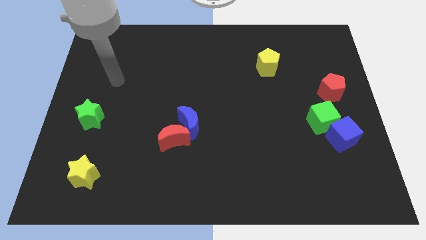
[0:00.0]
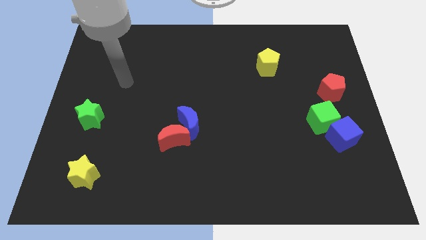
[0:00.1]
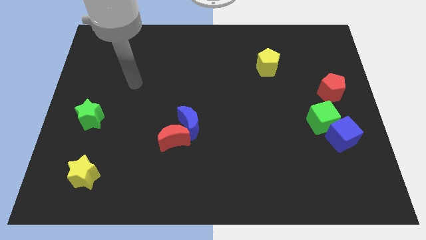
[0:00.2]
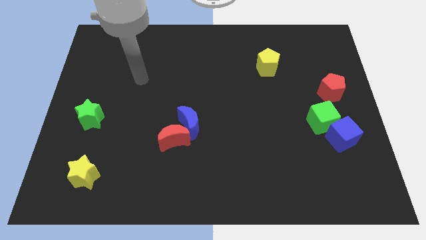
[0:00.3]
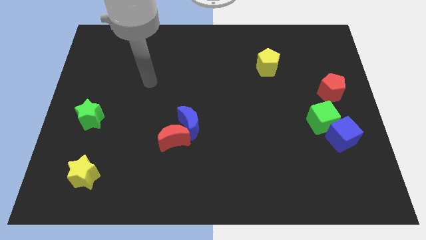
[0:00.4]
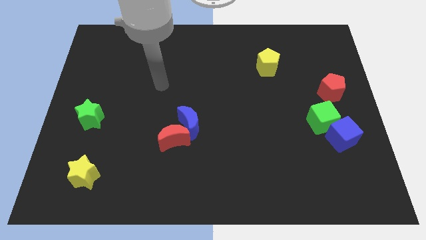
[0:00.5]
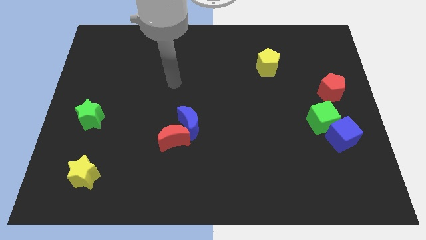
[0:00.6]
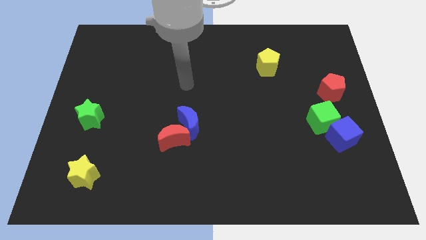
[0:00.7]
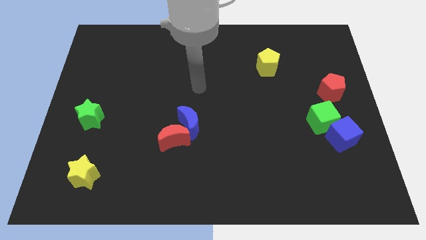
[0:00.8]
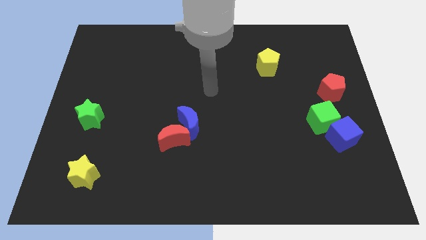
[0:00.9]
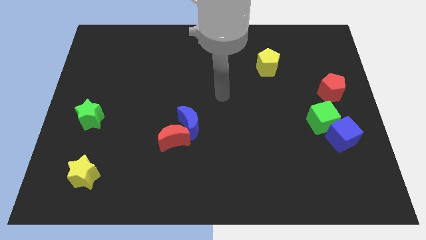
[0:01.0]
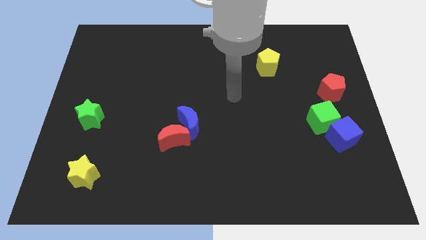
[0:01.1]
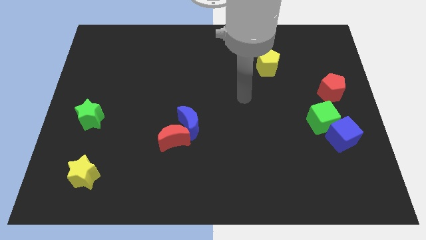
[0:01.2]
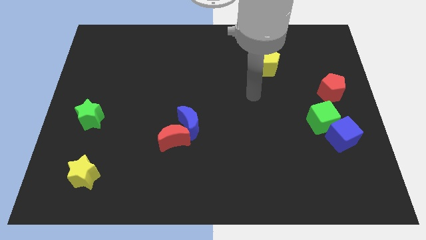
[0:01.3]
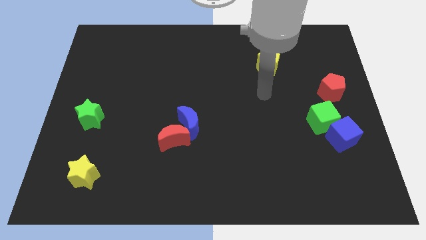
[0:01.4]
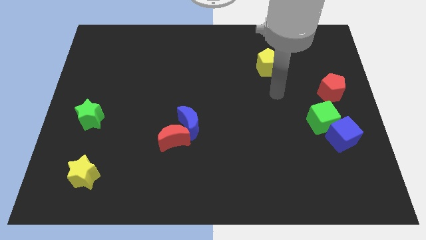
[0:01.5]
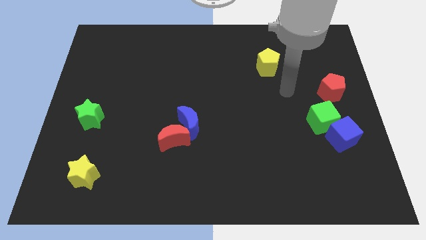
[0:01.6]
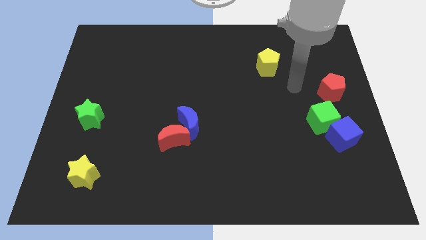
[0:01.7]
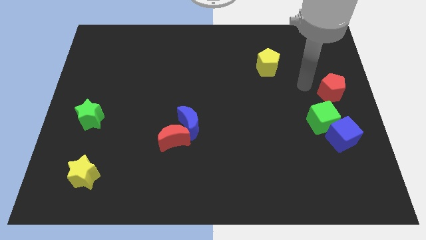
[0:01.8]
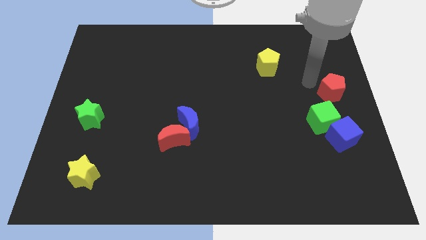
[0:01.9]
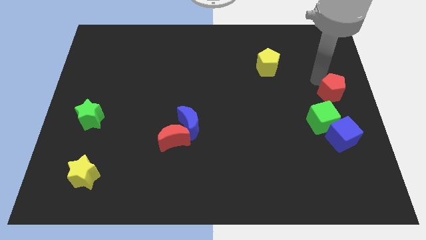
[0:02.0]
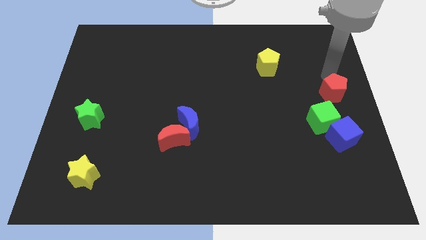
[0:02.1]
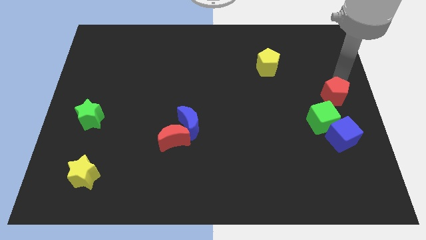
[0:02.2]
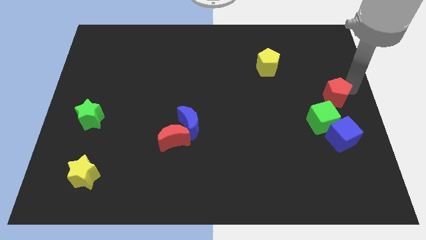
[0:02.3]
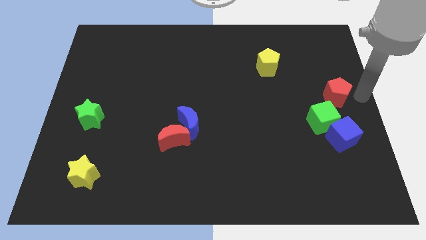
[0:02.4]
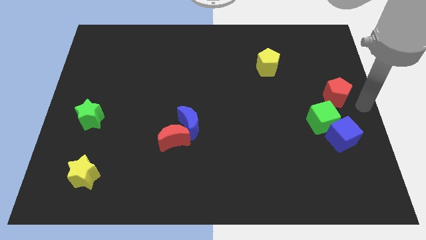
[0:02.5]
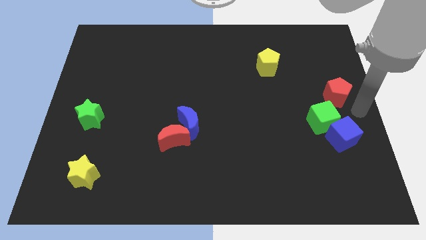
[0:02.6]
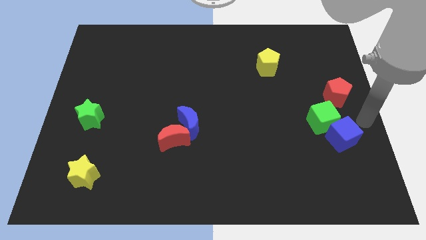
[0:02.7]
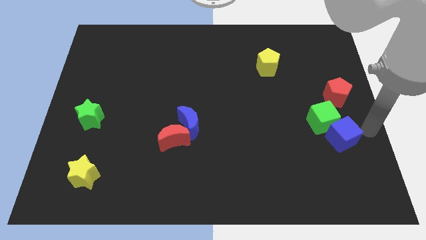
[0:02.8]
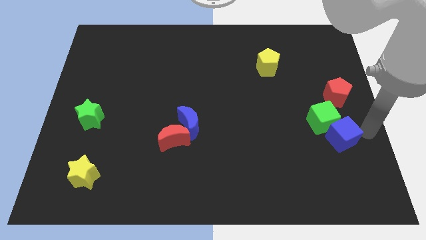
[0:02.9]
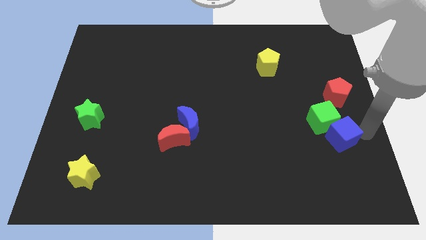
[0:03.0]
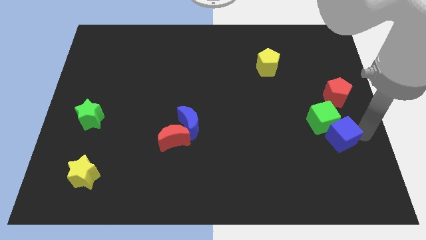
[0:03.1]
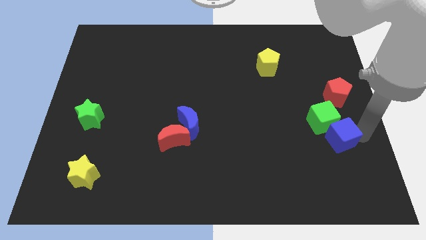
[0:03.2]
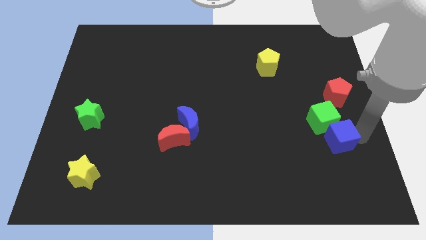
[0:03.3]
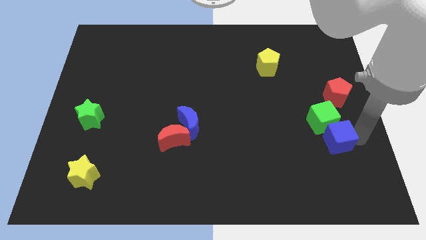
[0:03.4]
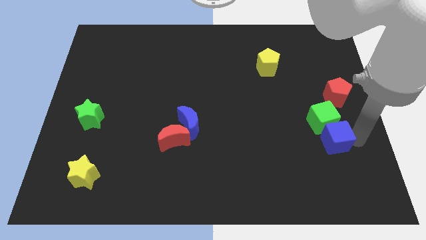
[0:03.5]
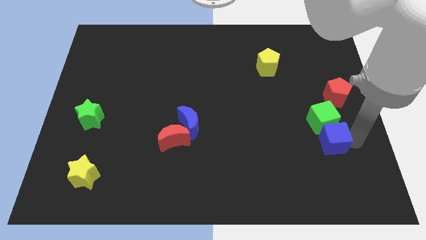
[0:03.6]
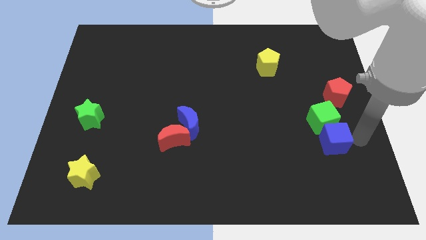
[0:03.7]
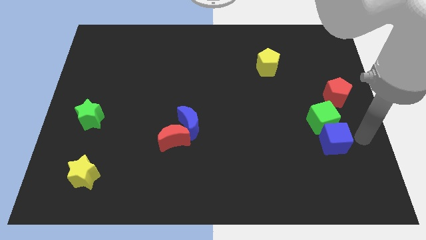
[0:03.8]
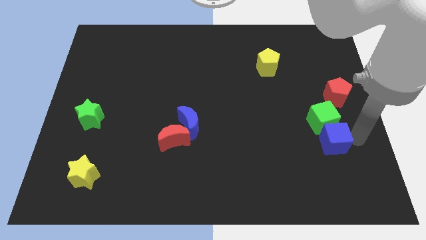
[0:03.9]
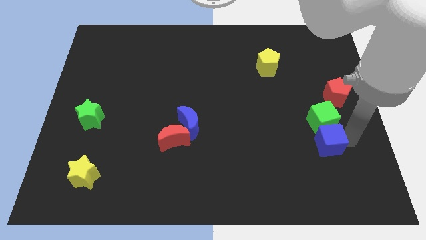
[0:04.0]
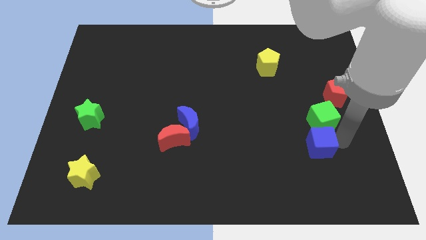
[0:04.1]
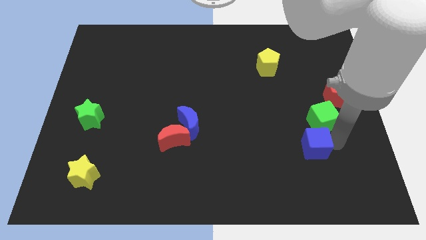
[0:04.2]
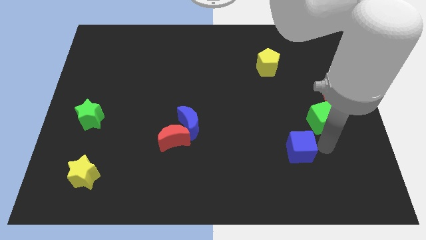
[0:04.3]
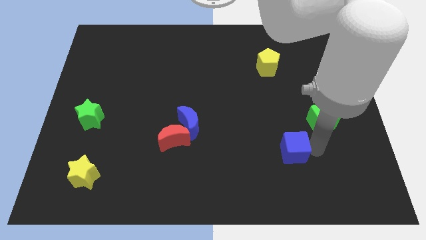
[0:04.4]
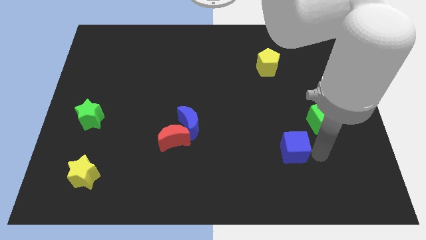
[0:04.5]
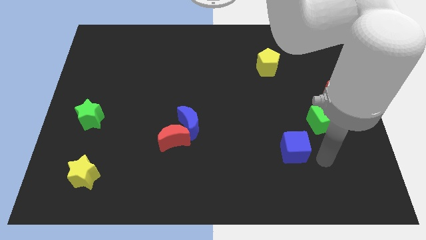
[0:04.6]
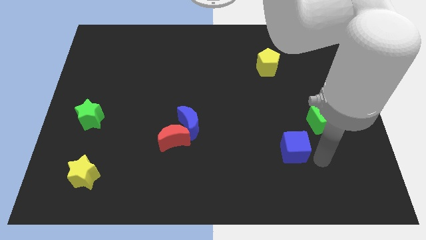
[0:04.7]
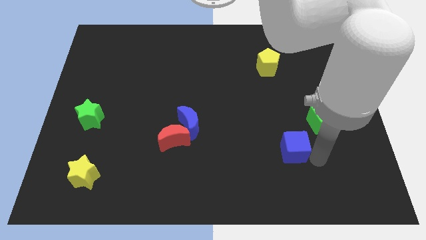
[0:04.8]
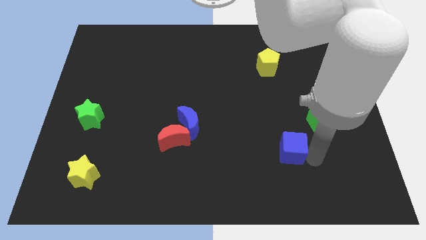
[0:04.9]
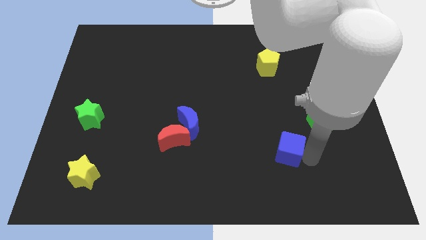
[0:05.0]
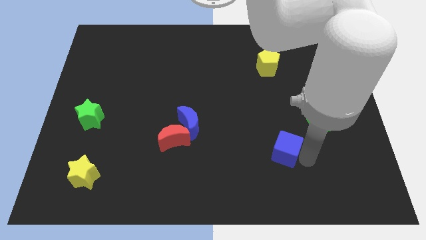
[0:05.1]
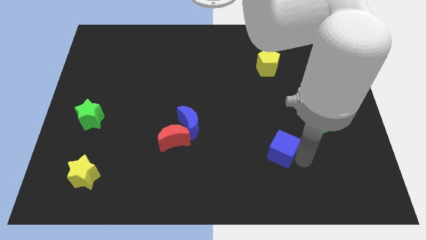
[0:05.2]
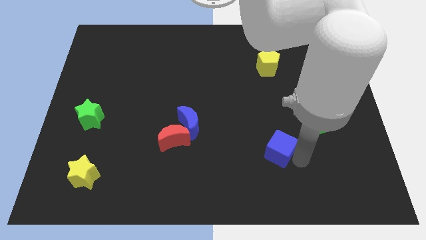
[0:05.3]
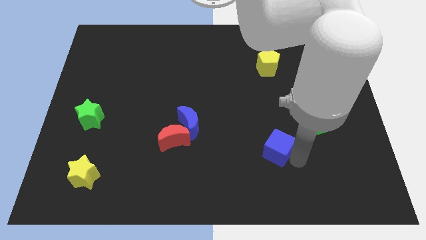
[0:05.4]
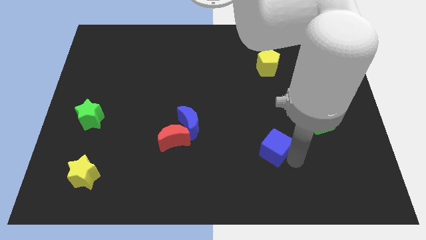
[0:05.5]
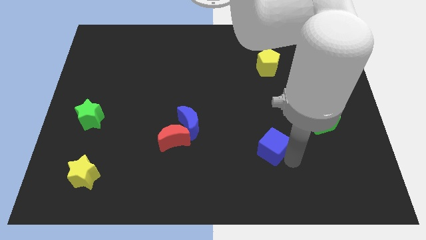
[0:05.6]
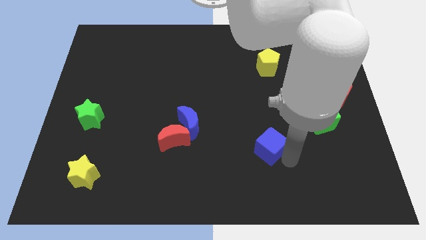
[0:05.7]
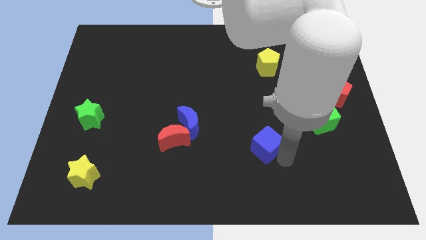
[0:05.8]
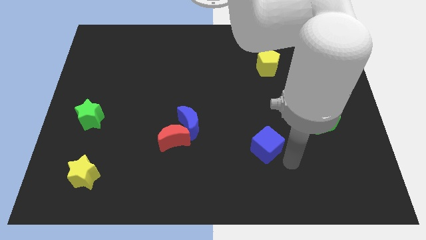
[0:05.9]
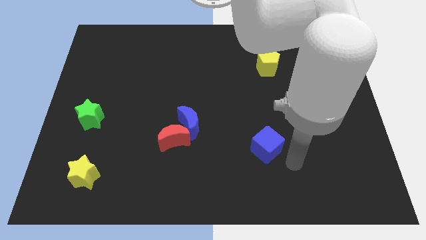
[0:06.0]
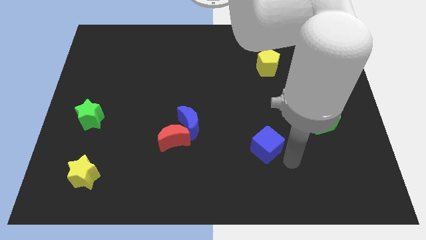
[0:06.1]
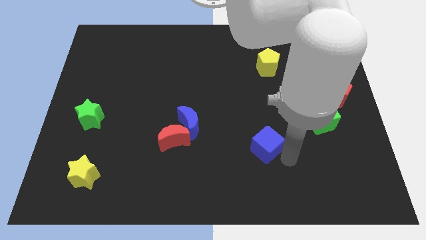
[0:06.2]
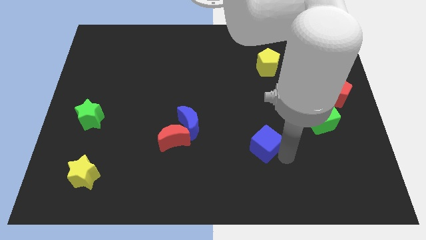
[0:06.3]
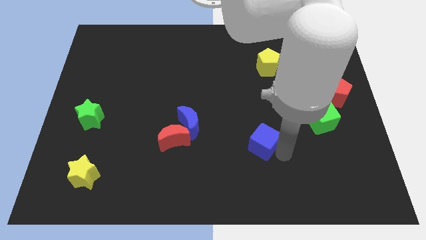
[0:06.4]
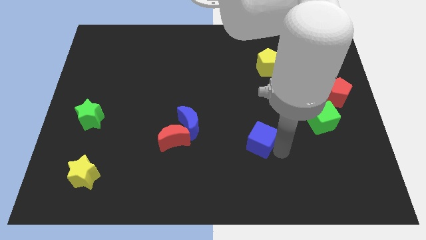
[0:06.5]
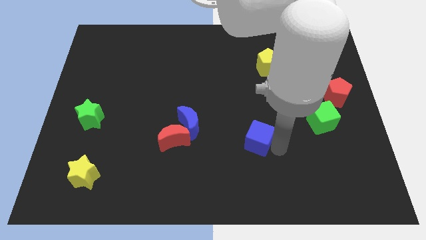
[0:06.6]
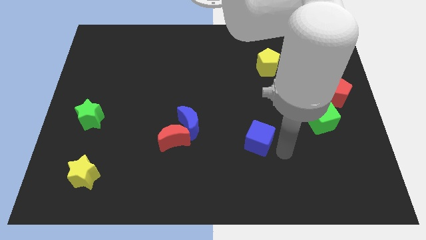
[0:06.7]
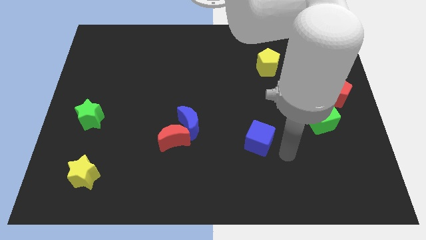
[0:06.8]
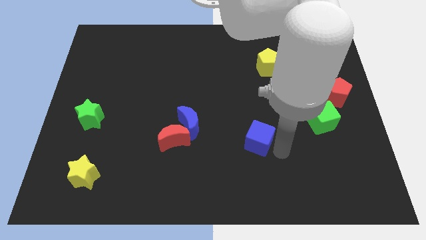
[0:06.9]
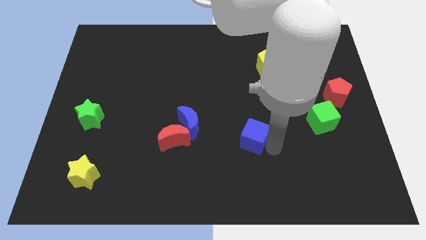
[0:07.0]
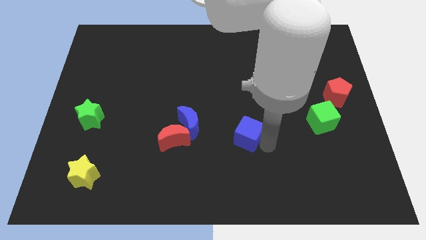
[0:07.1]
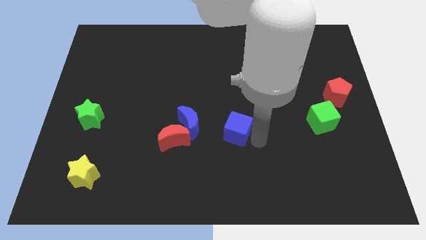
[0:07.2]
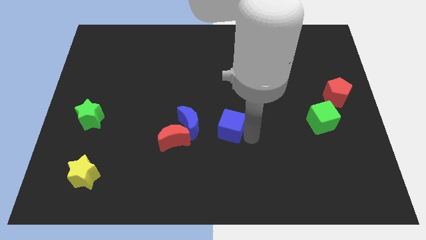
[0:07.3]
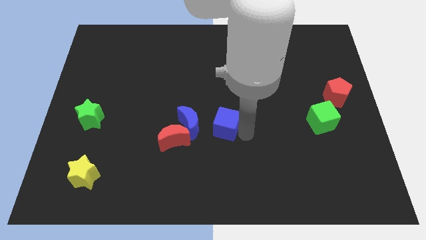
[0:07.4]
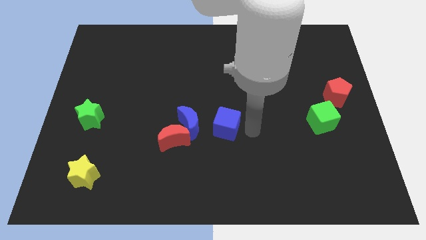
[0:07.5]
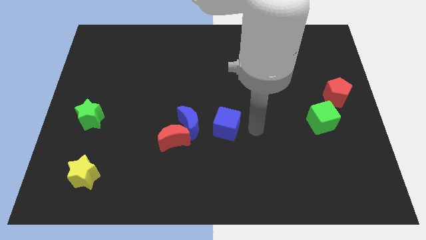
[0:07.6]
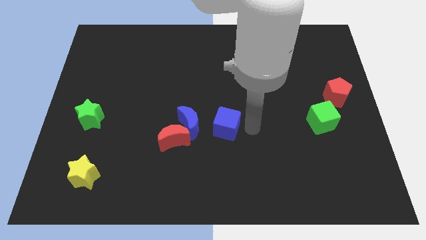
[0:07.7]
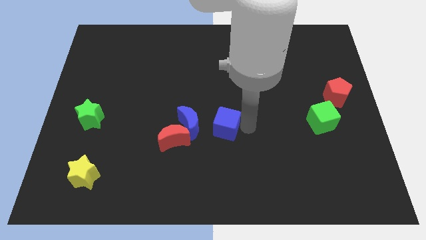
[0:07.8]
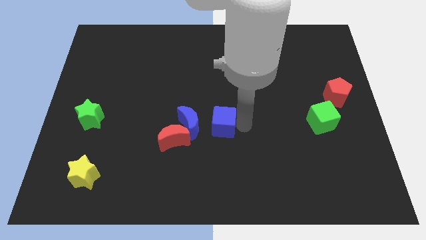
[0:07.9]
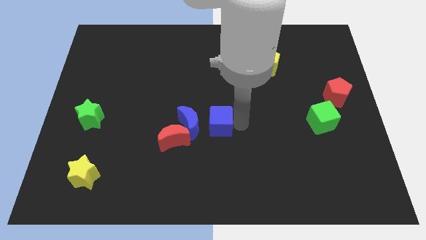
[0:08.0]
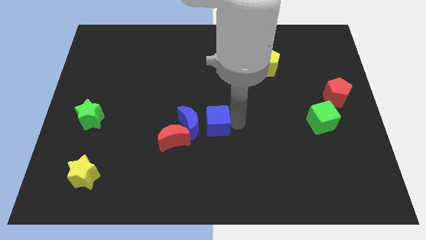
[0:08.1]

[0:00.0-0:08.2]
slide the blue cube to the blue moon
